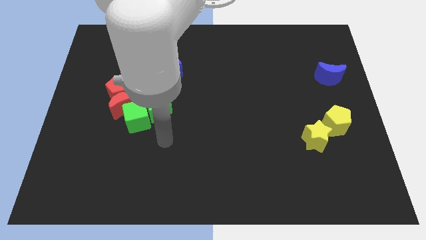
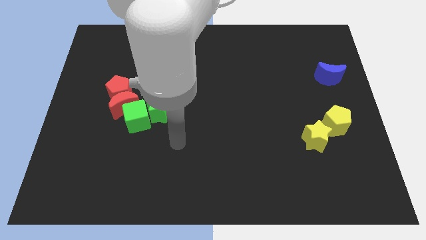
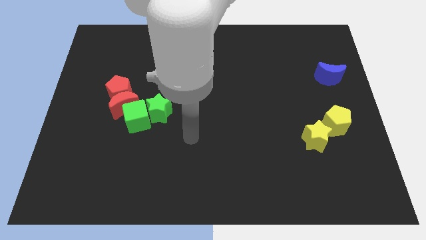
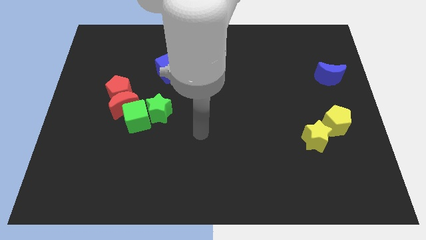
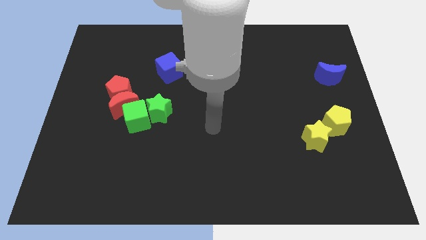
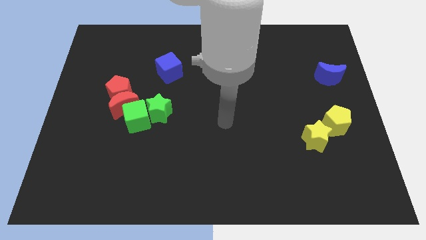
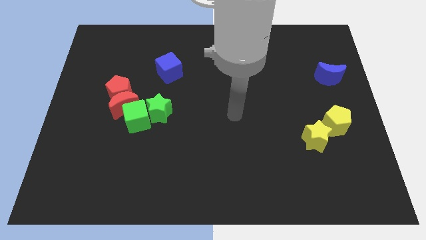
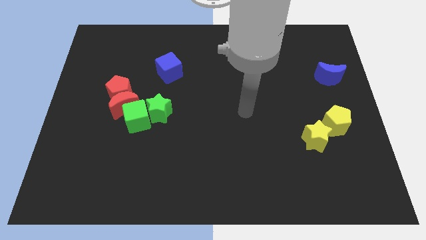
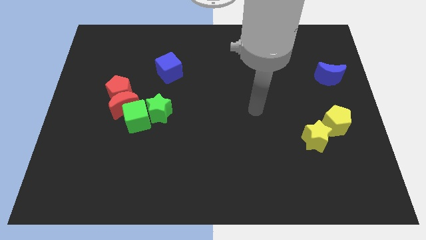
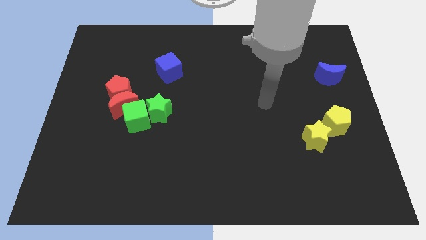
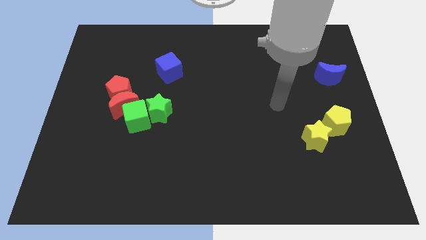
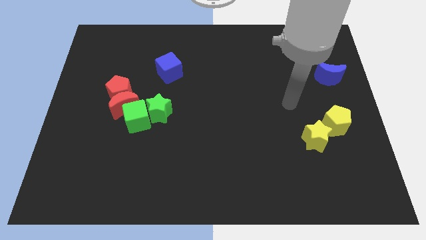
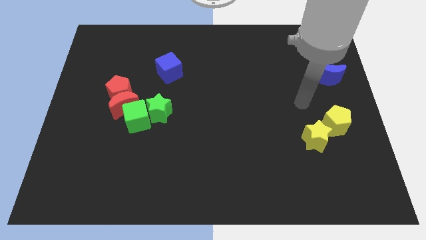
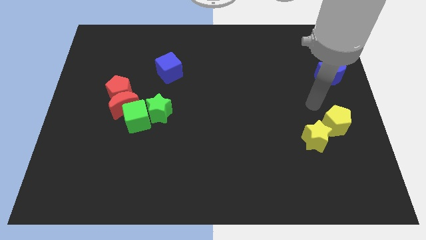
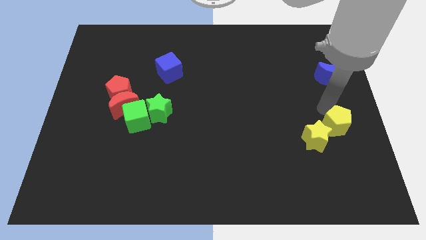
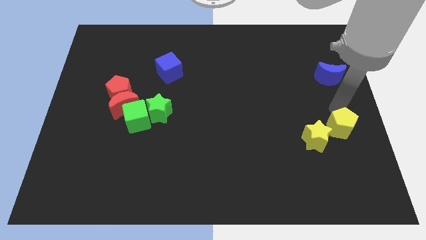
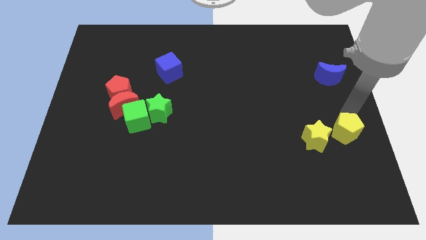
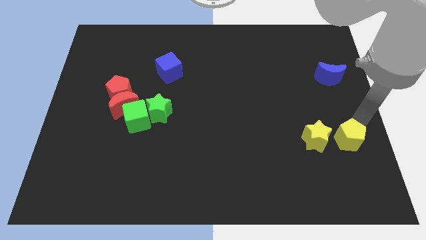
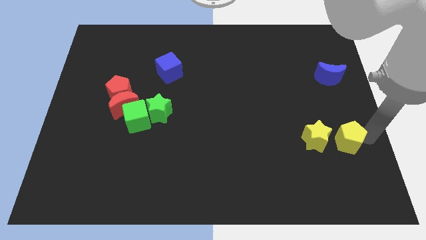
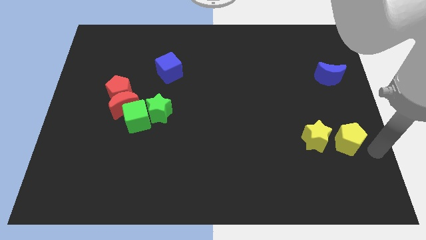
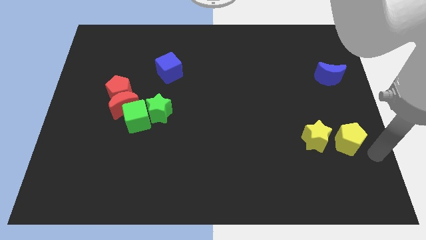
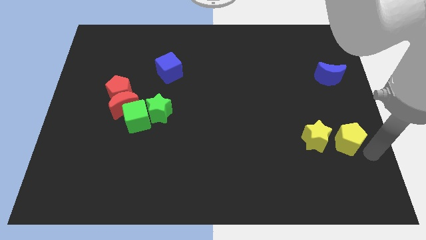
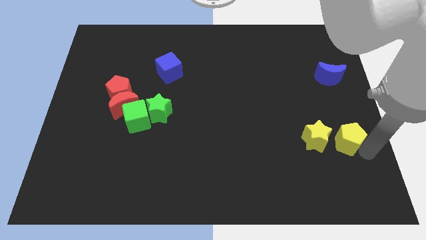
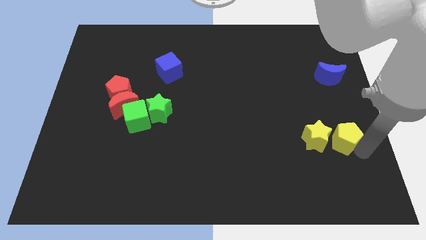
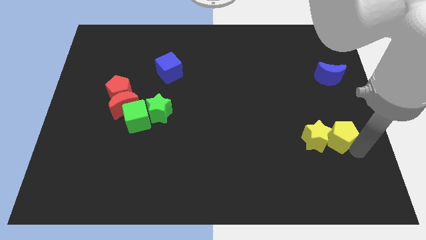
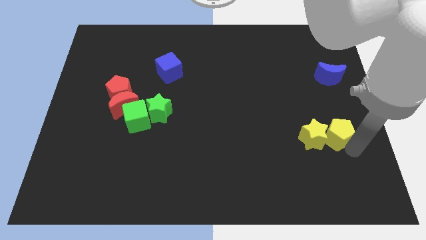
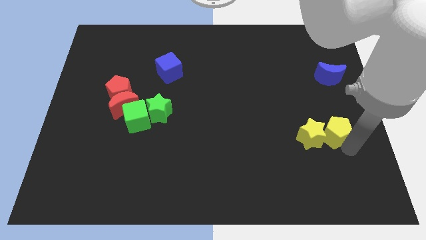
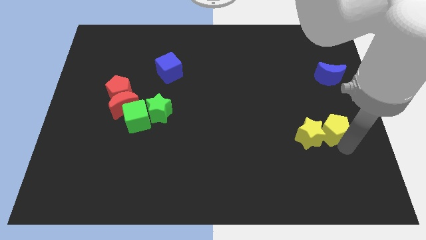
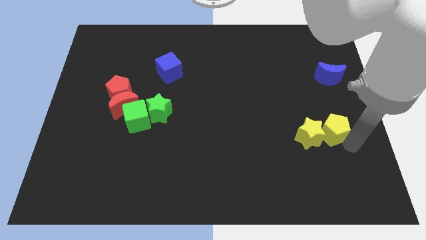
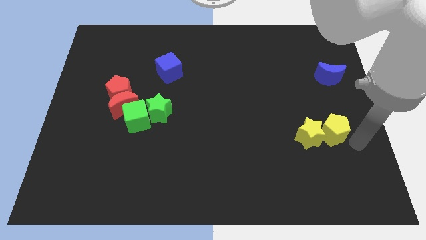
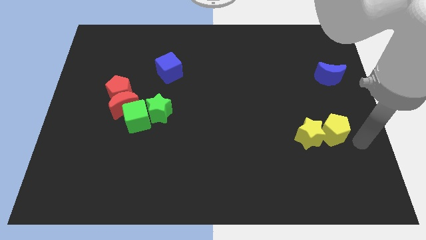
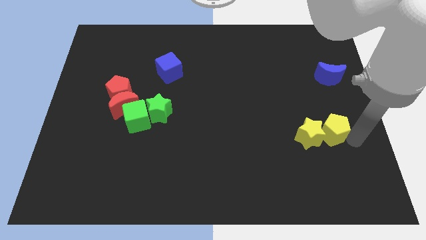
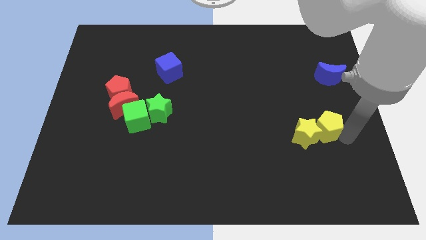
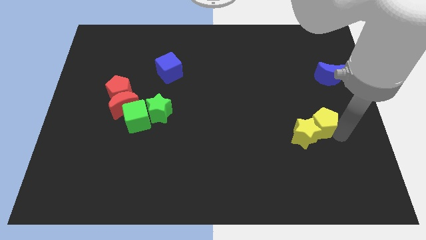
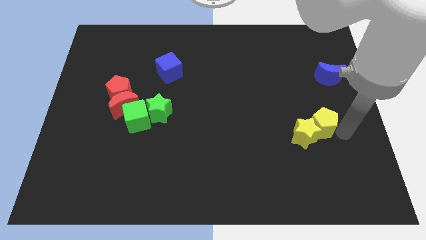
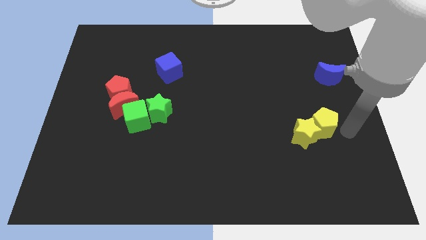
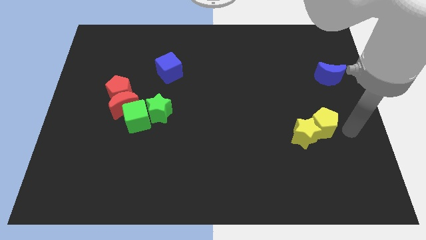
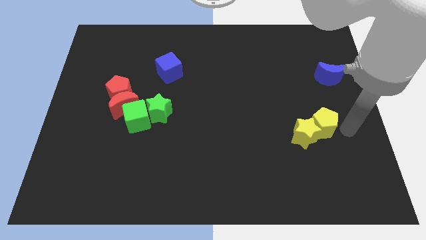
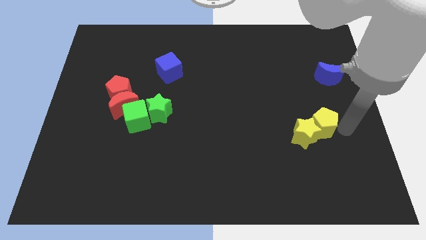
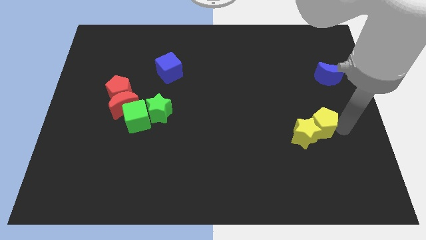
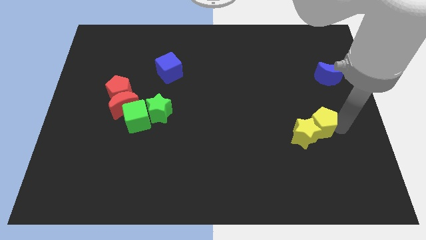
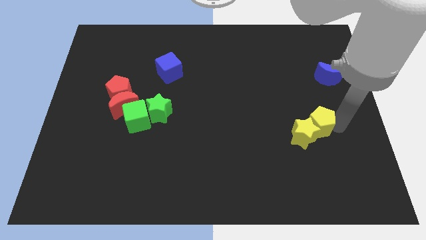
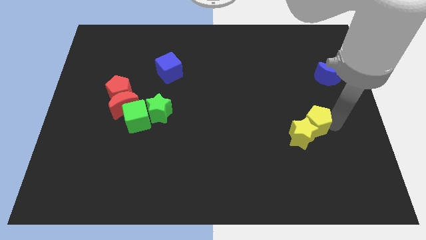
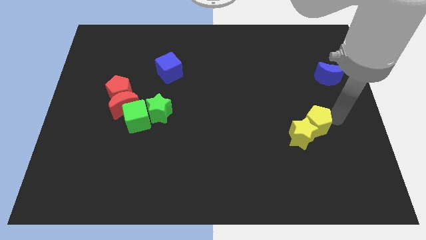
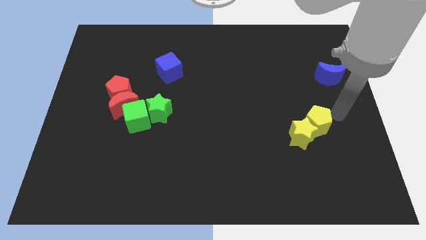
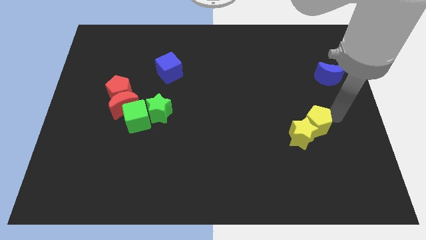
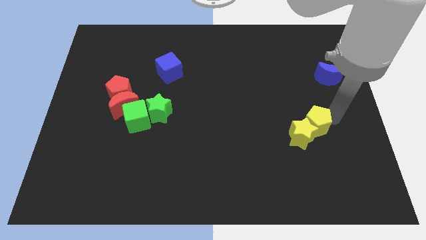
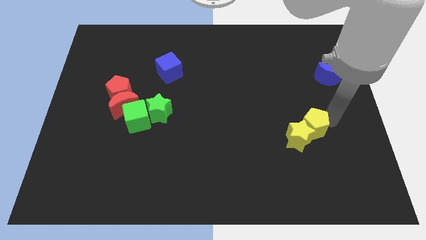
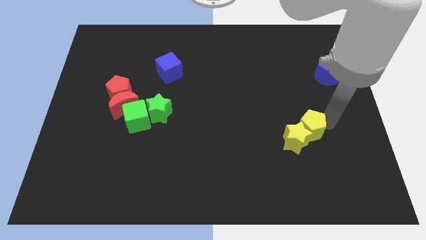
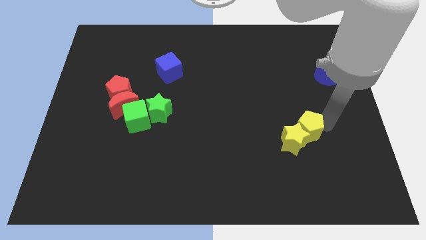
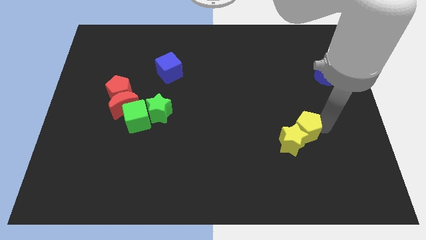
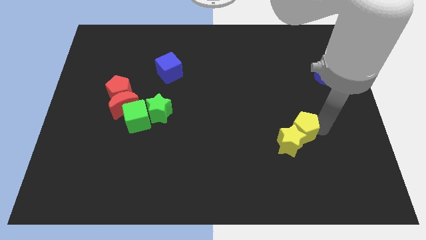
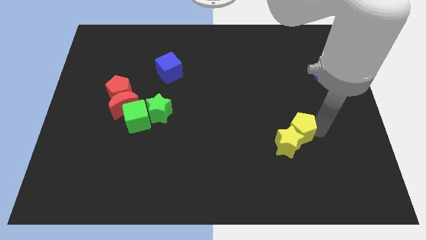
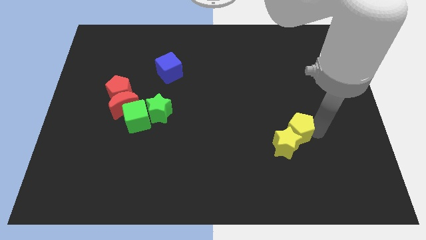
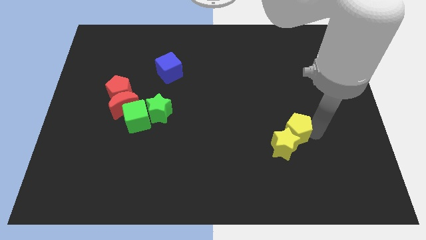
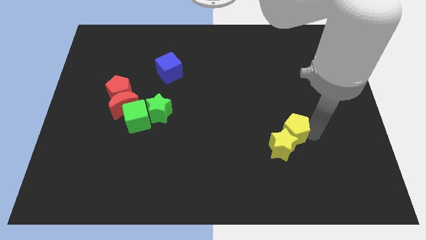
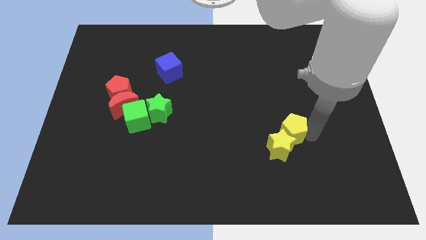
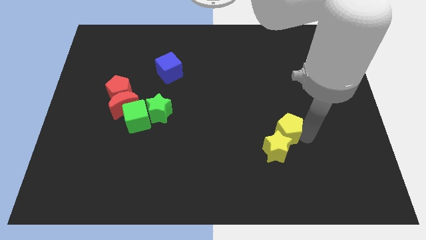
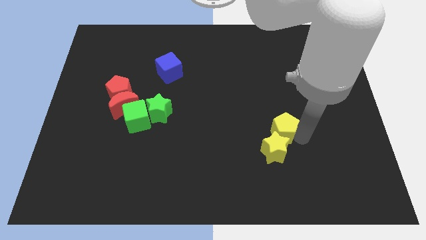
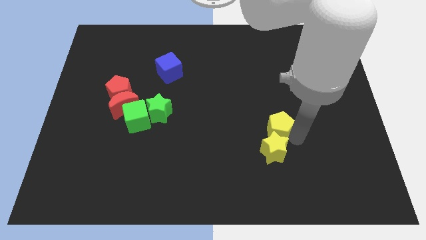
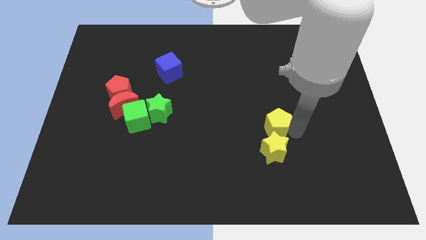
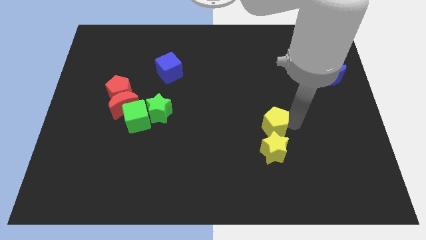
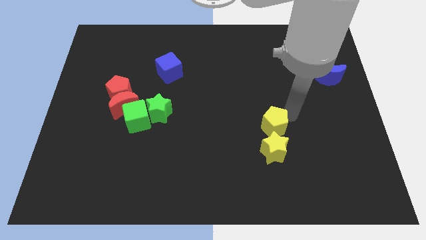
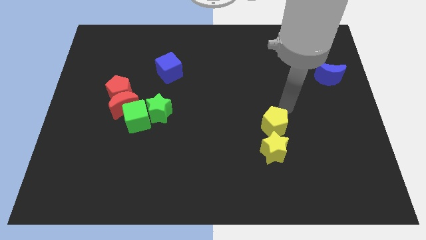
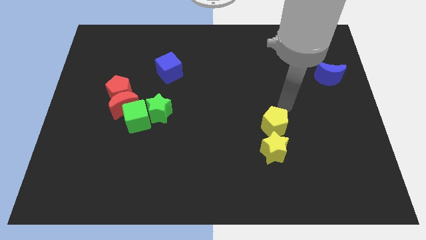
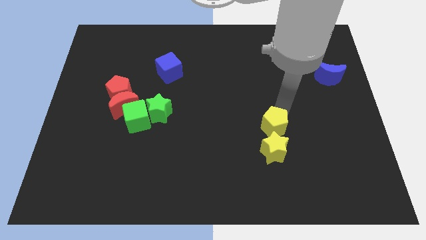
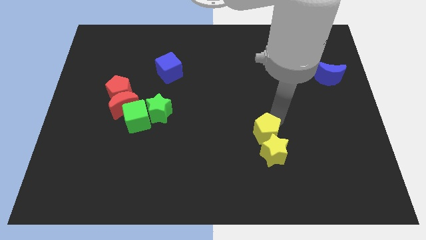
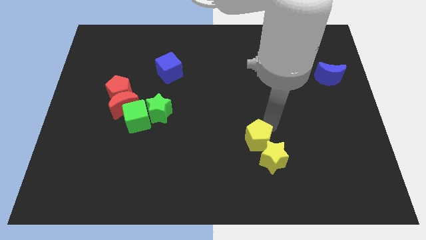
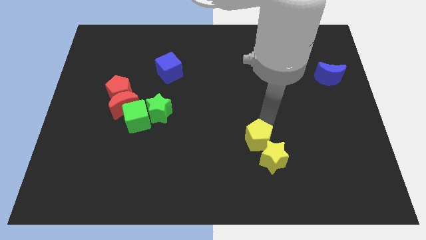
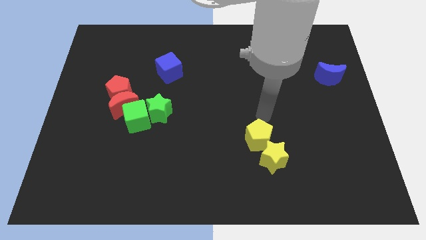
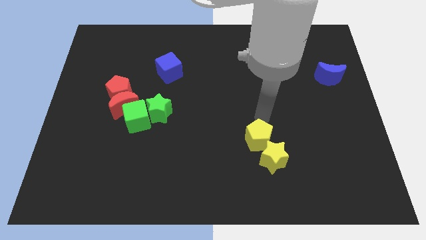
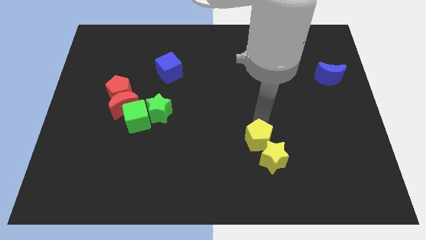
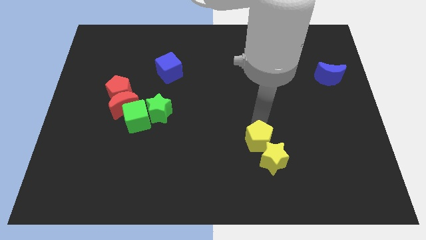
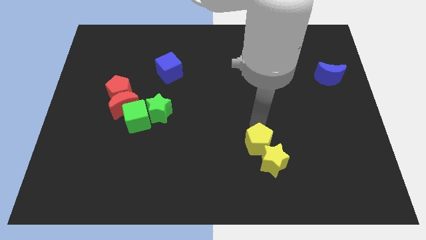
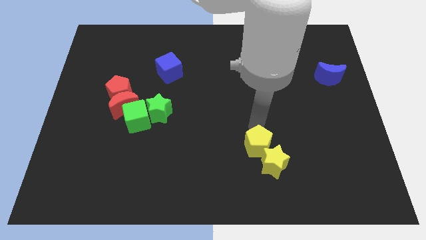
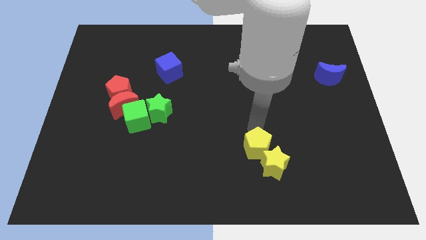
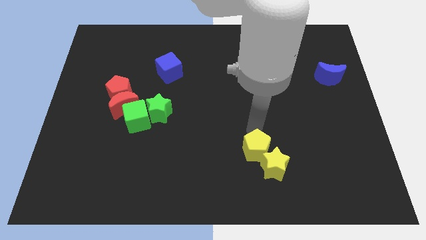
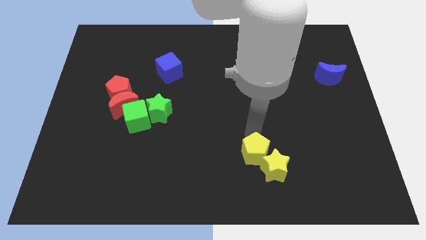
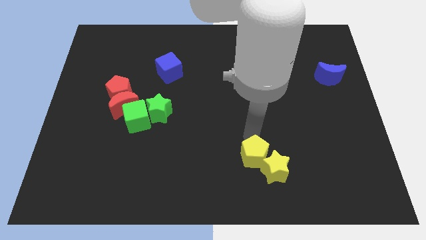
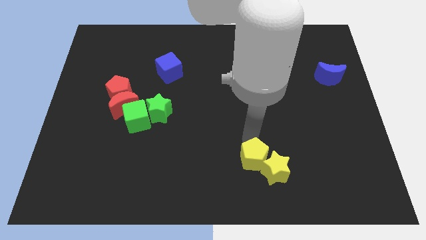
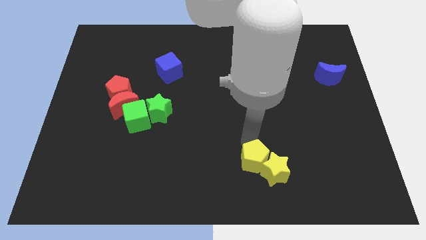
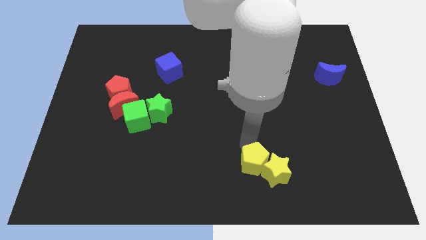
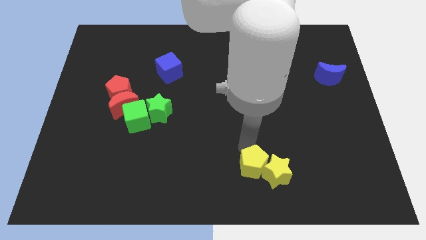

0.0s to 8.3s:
move the yellow pentagon to the bottom side
